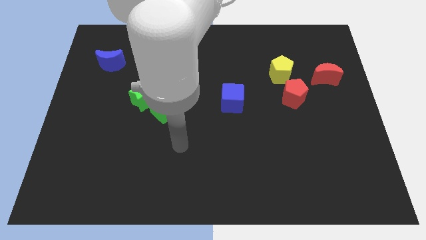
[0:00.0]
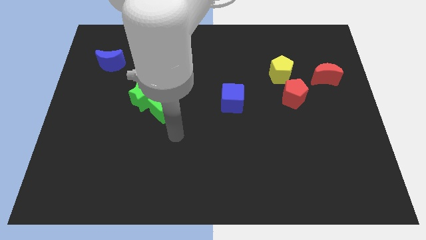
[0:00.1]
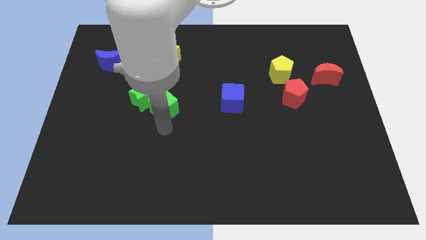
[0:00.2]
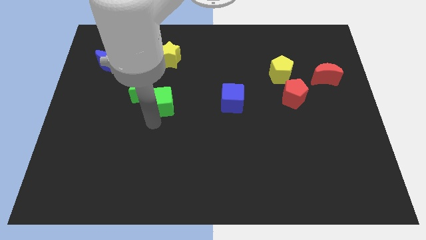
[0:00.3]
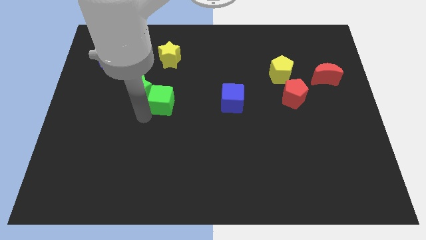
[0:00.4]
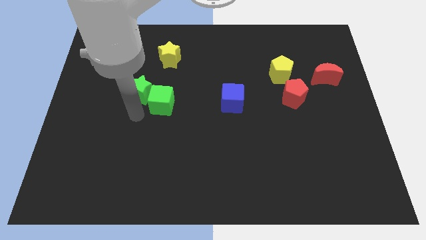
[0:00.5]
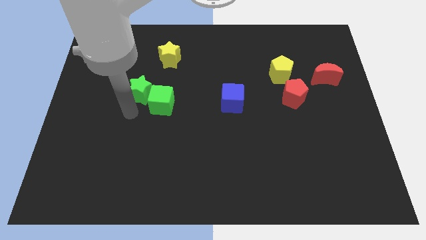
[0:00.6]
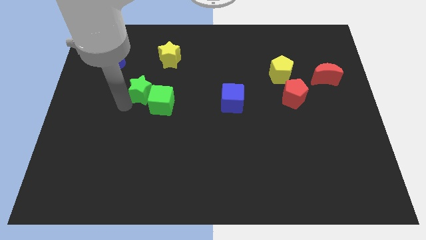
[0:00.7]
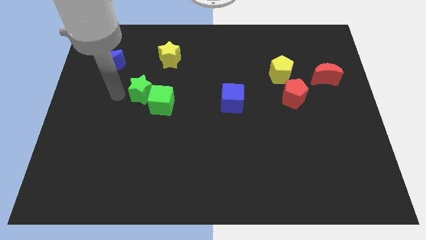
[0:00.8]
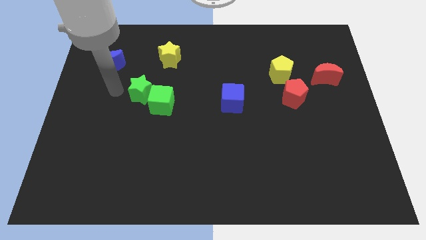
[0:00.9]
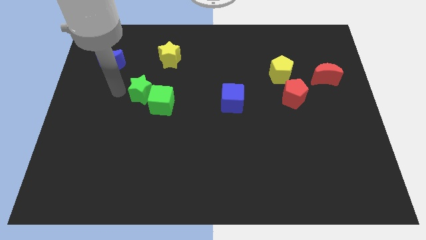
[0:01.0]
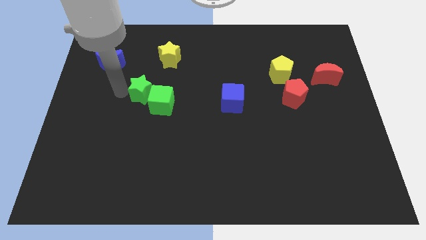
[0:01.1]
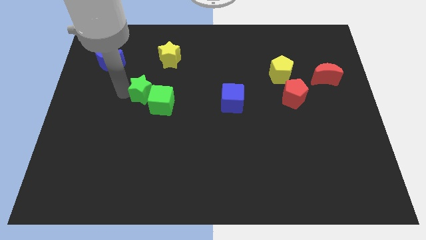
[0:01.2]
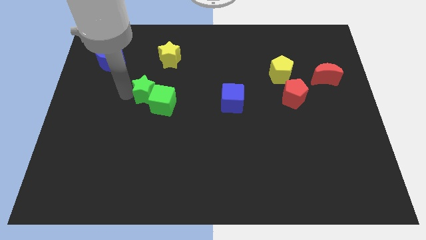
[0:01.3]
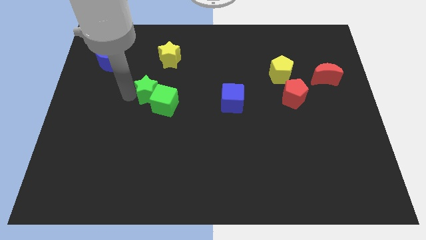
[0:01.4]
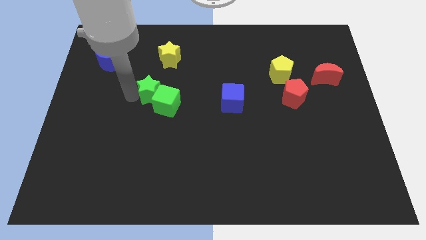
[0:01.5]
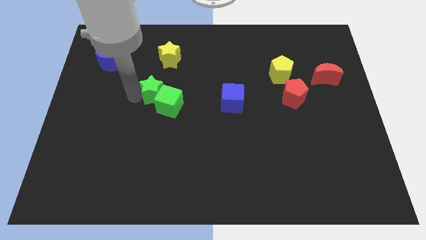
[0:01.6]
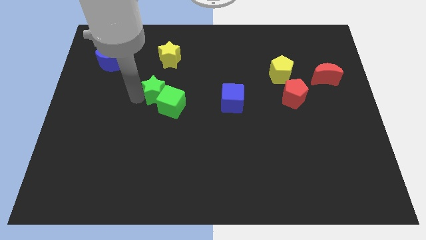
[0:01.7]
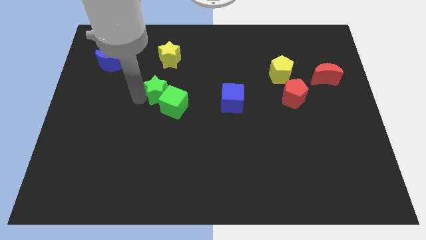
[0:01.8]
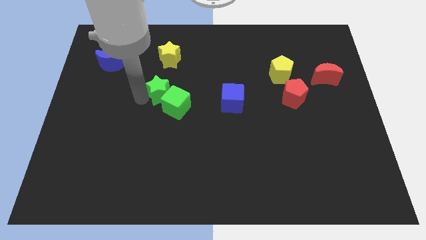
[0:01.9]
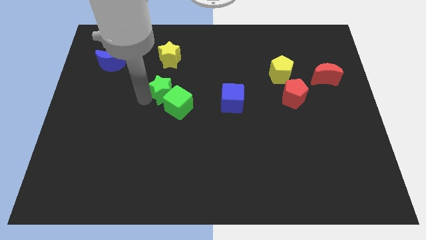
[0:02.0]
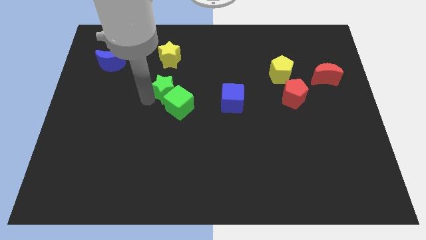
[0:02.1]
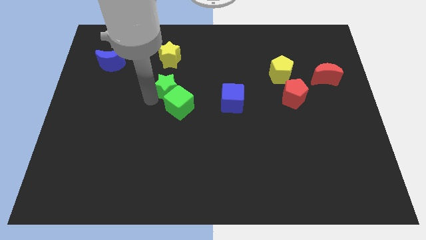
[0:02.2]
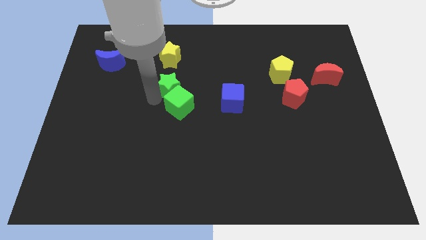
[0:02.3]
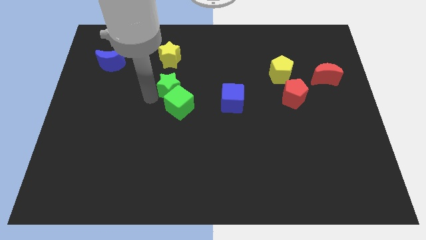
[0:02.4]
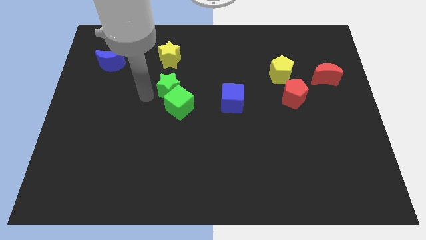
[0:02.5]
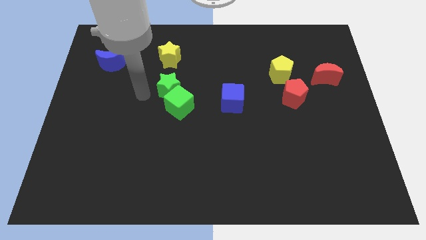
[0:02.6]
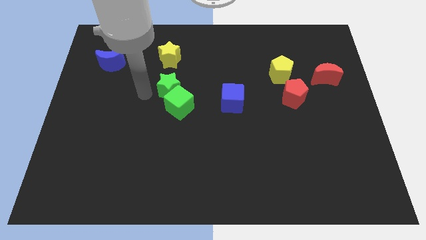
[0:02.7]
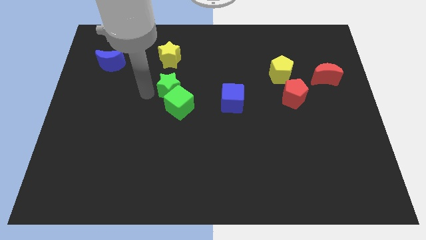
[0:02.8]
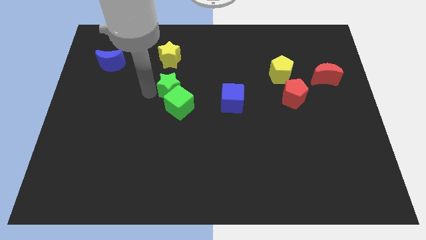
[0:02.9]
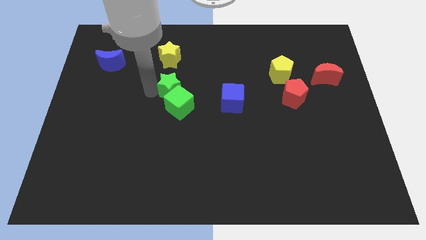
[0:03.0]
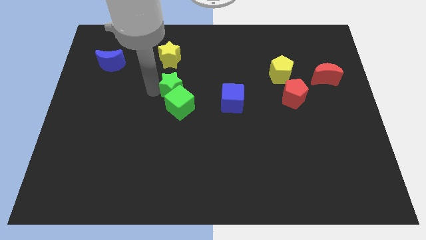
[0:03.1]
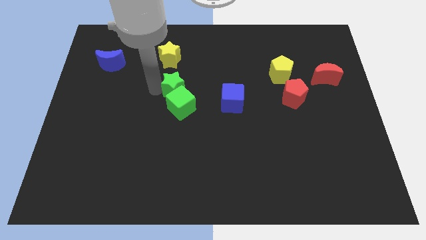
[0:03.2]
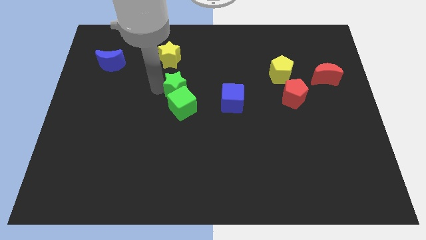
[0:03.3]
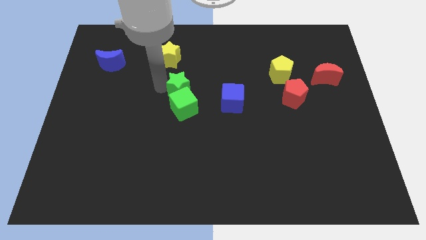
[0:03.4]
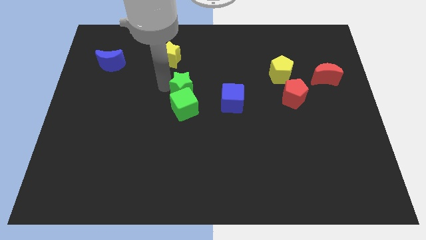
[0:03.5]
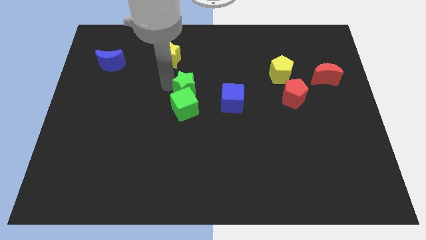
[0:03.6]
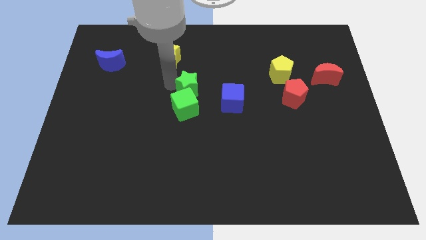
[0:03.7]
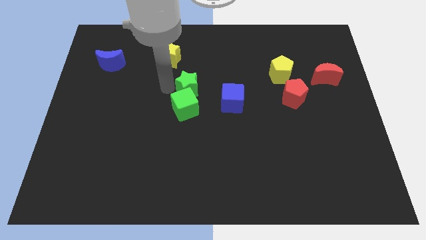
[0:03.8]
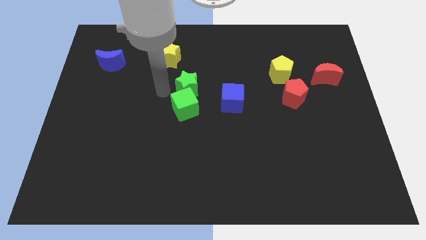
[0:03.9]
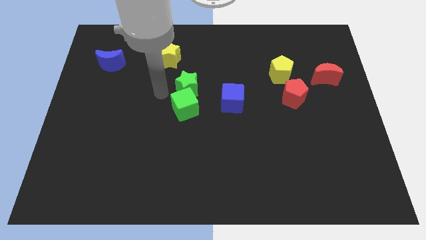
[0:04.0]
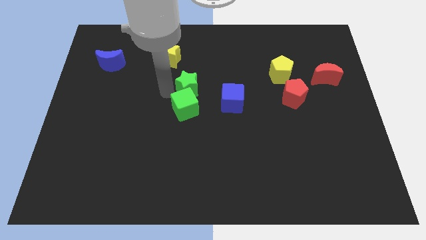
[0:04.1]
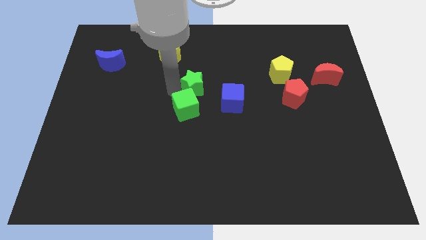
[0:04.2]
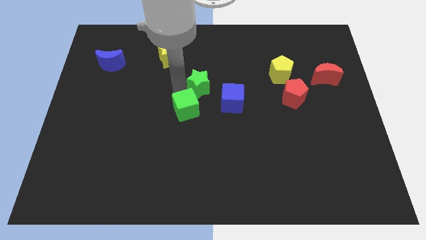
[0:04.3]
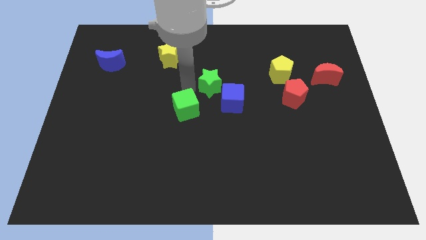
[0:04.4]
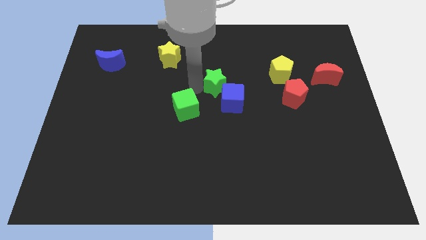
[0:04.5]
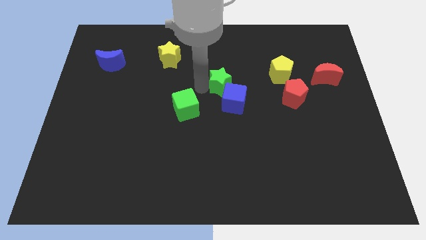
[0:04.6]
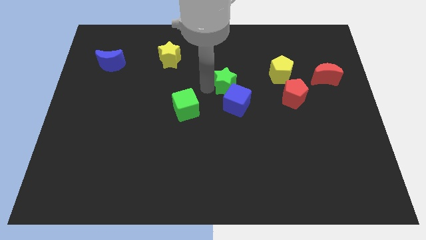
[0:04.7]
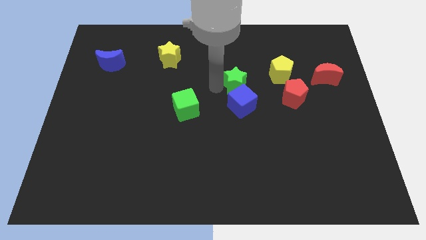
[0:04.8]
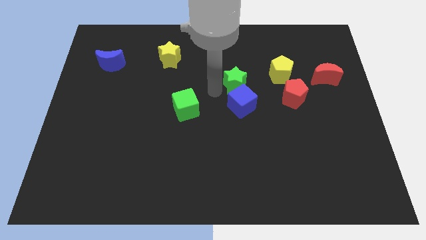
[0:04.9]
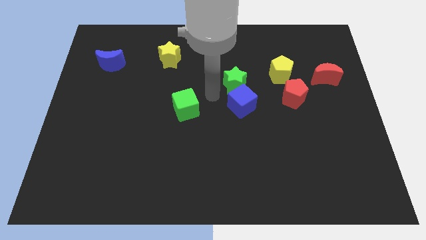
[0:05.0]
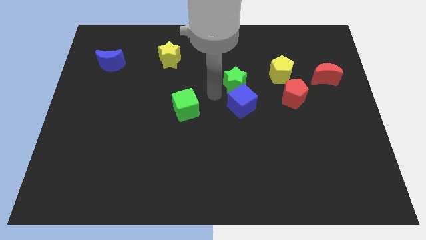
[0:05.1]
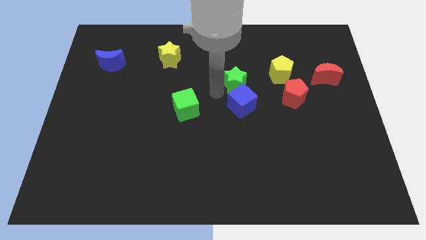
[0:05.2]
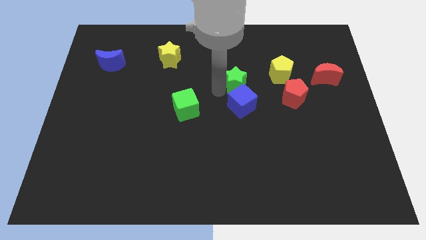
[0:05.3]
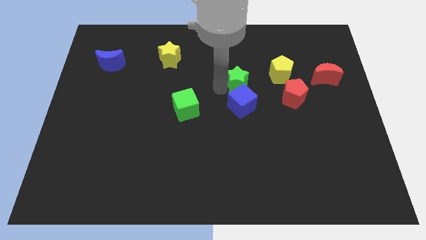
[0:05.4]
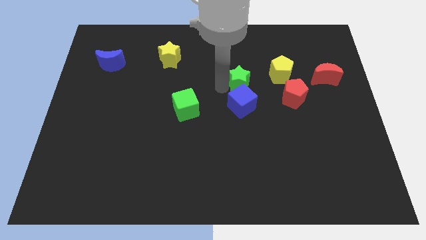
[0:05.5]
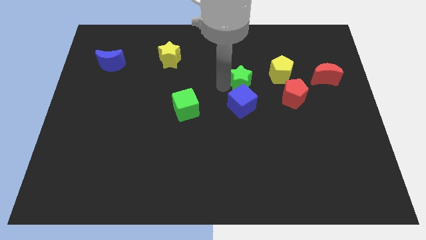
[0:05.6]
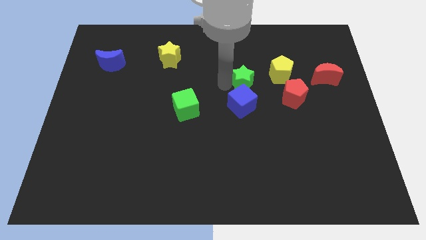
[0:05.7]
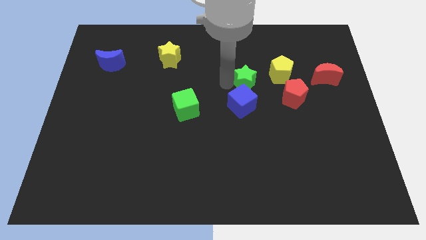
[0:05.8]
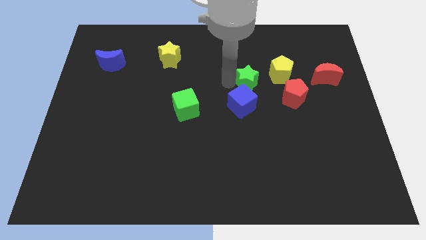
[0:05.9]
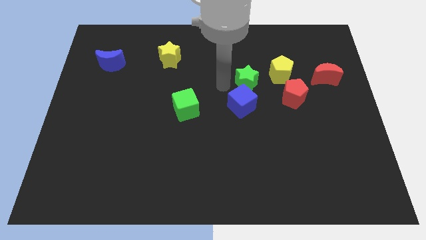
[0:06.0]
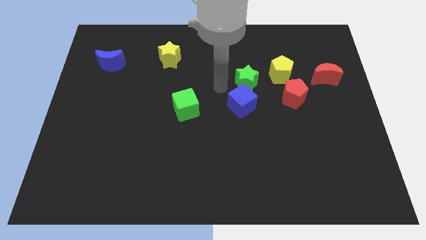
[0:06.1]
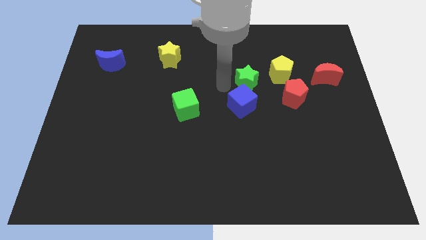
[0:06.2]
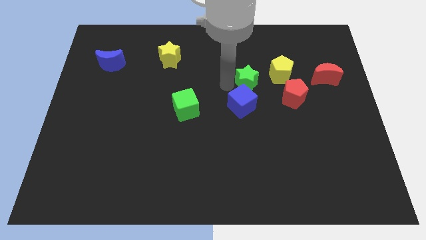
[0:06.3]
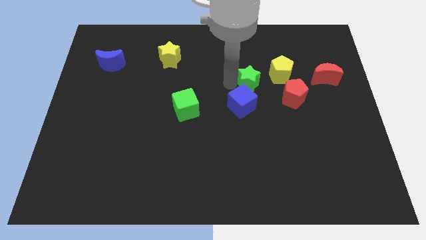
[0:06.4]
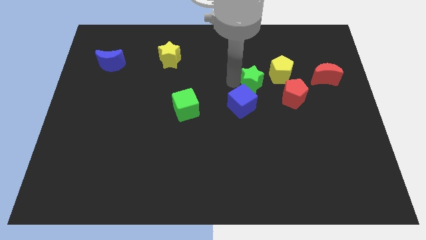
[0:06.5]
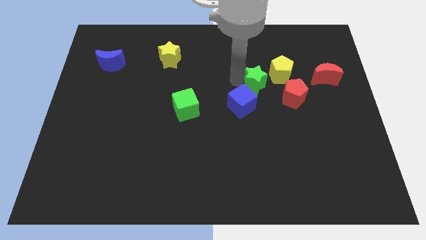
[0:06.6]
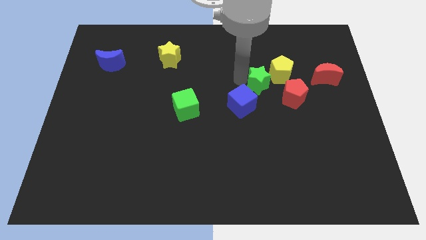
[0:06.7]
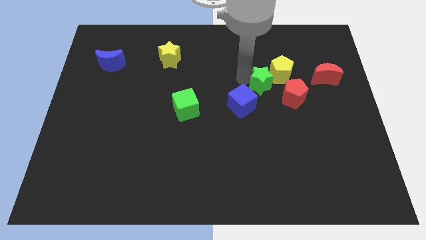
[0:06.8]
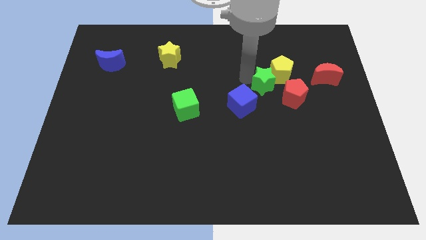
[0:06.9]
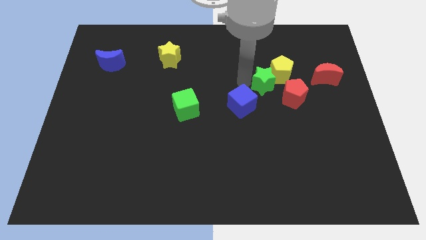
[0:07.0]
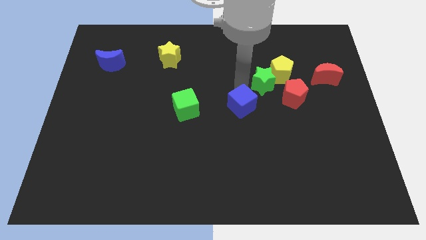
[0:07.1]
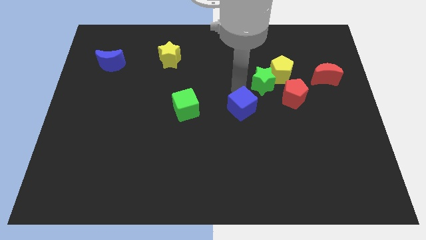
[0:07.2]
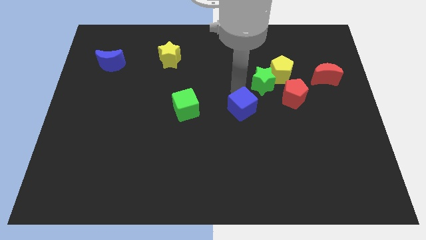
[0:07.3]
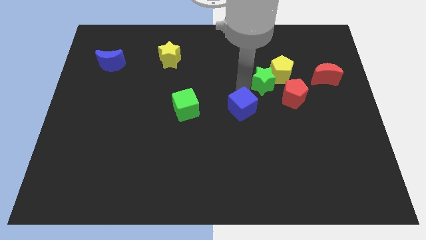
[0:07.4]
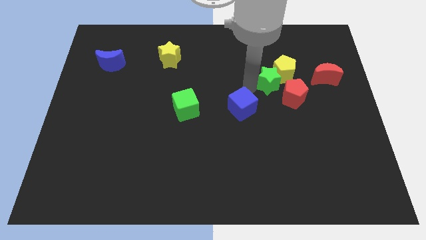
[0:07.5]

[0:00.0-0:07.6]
move the green star left of the red moon

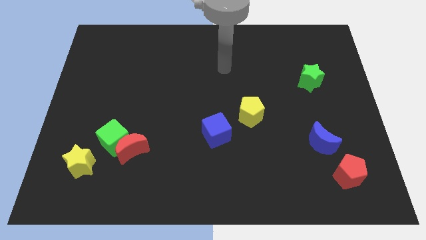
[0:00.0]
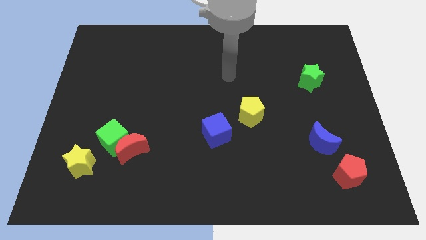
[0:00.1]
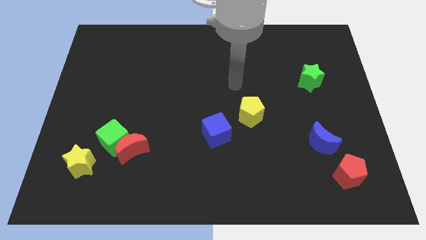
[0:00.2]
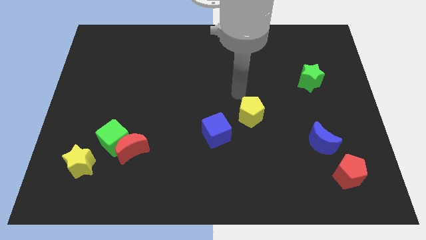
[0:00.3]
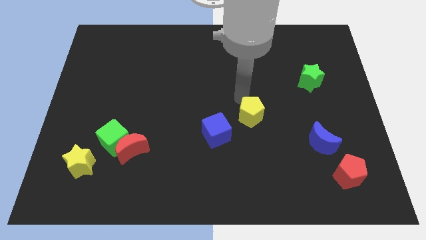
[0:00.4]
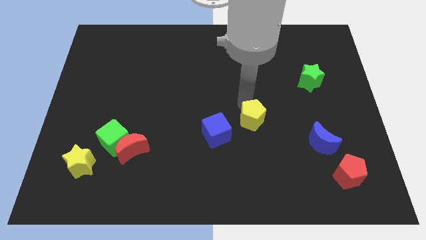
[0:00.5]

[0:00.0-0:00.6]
put the yellow pentagon to the right side of the blue cube
